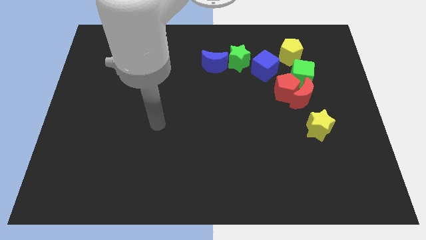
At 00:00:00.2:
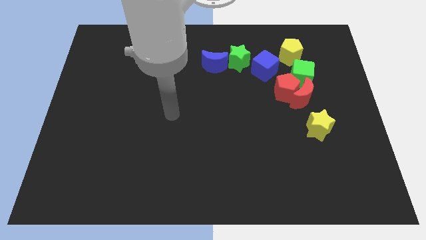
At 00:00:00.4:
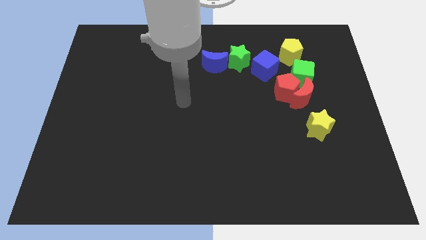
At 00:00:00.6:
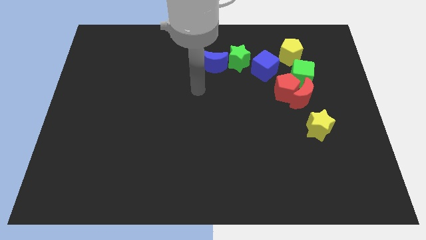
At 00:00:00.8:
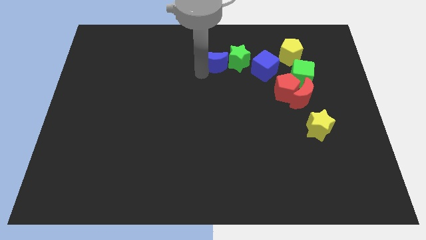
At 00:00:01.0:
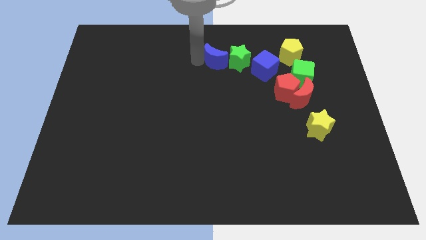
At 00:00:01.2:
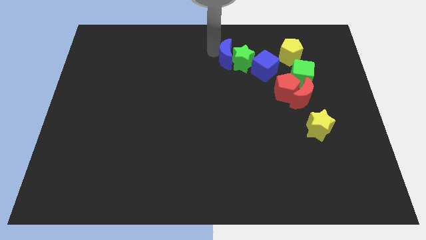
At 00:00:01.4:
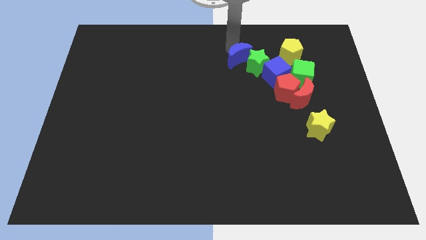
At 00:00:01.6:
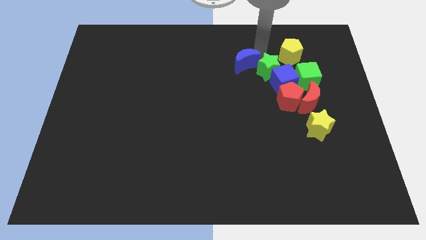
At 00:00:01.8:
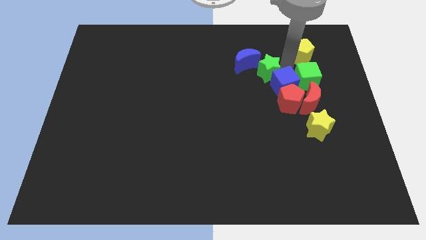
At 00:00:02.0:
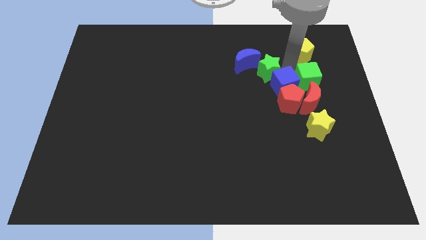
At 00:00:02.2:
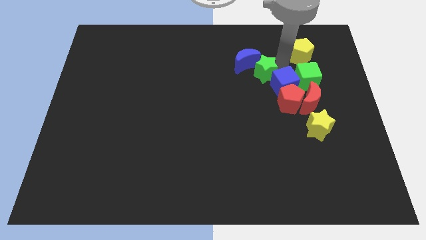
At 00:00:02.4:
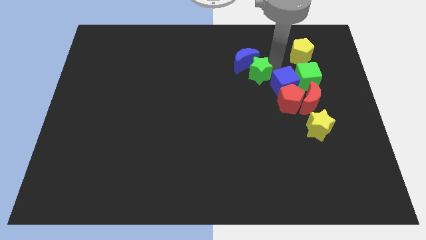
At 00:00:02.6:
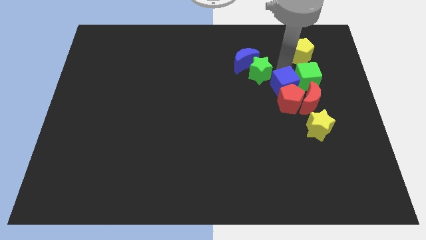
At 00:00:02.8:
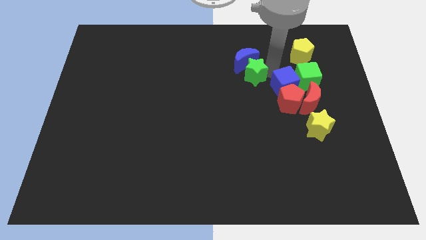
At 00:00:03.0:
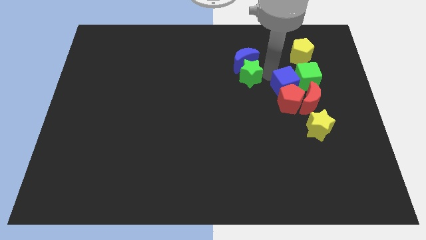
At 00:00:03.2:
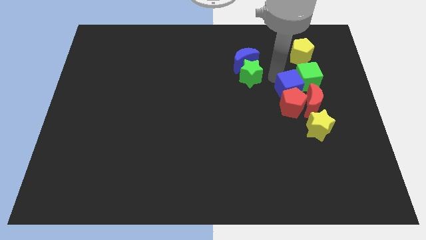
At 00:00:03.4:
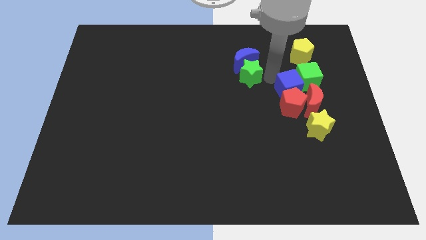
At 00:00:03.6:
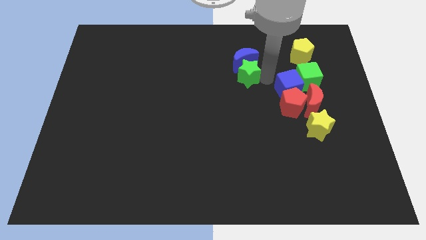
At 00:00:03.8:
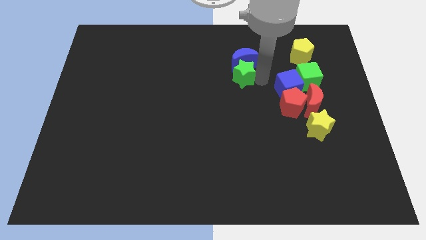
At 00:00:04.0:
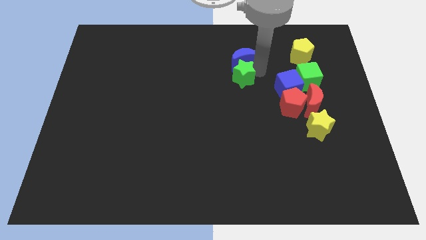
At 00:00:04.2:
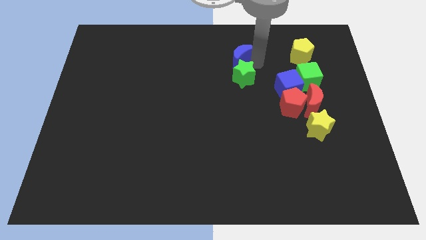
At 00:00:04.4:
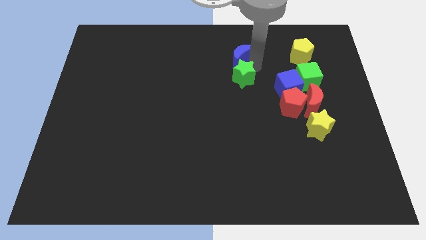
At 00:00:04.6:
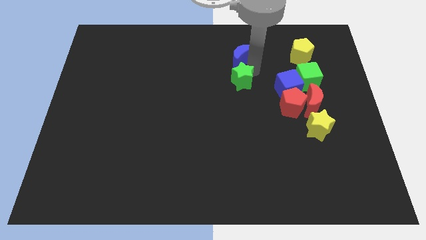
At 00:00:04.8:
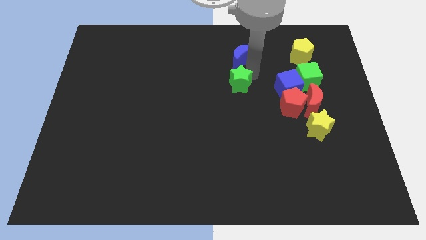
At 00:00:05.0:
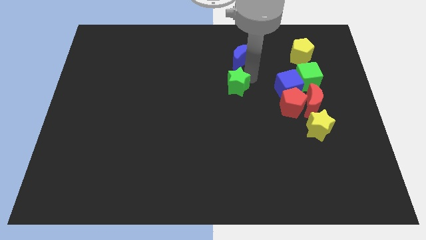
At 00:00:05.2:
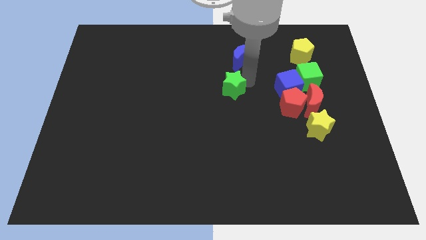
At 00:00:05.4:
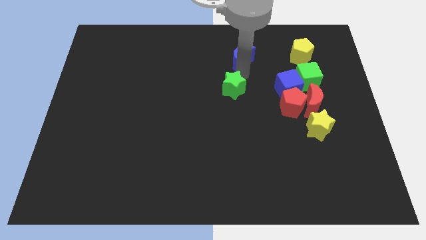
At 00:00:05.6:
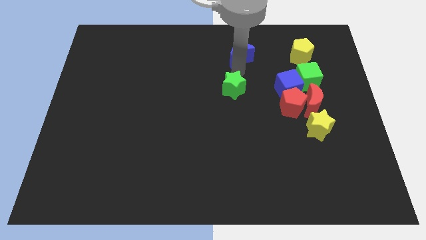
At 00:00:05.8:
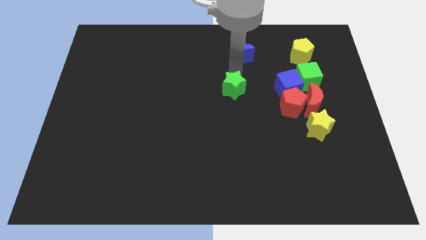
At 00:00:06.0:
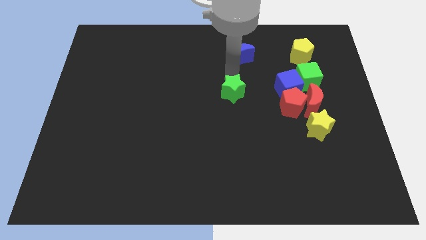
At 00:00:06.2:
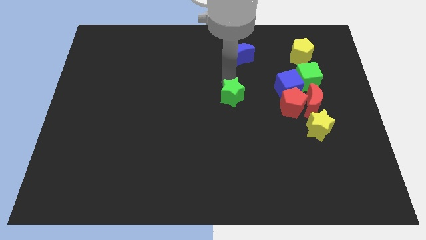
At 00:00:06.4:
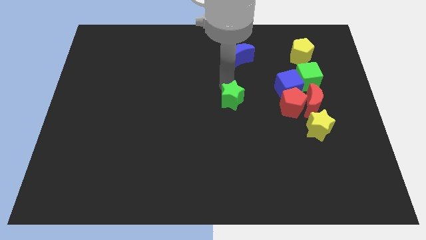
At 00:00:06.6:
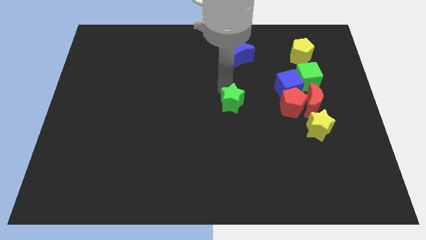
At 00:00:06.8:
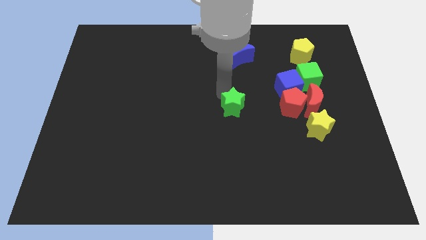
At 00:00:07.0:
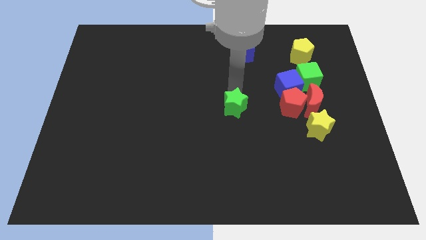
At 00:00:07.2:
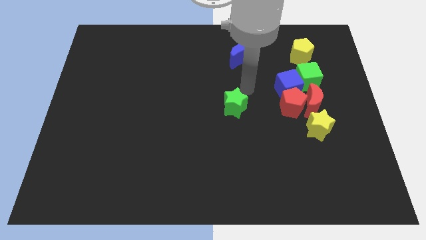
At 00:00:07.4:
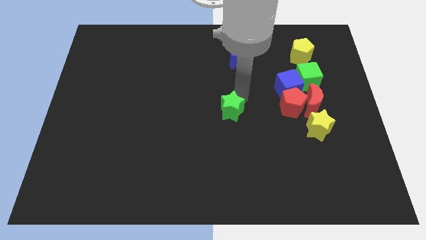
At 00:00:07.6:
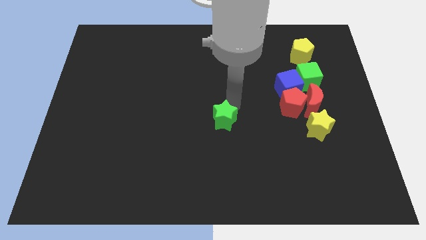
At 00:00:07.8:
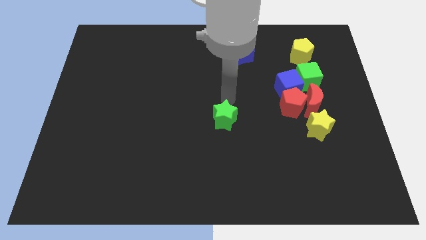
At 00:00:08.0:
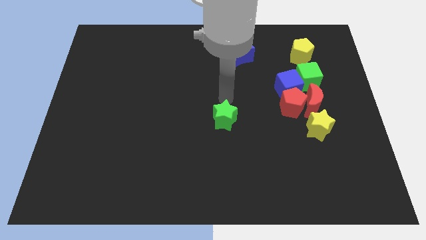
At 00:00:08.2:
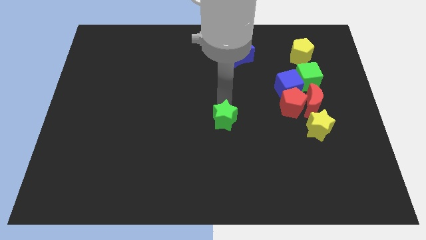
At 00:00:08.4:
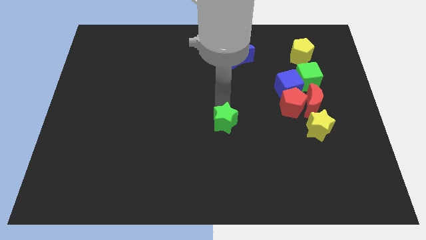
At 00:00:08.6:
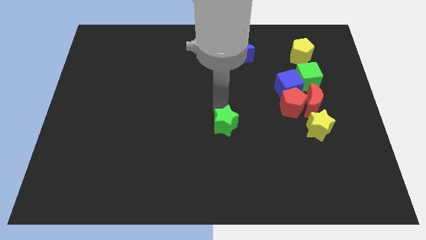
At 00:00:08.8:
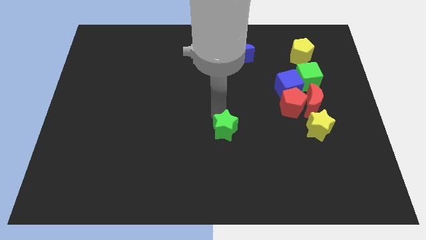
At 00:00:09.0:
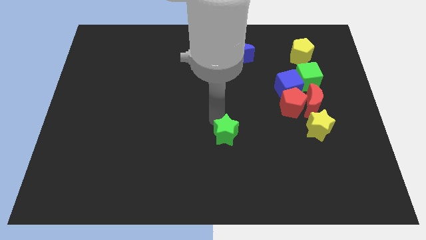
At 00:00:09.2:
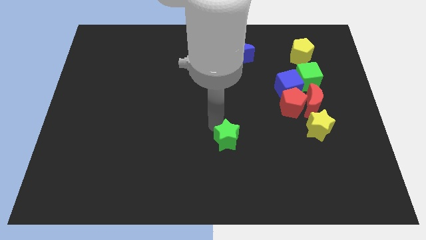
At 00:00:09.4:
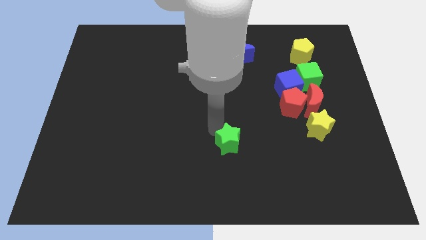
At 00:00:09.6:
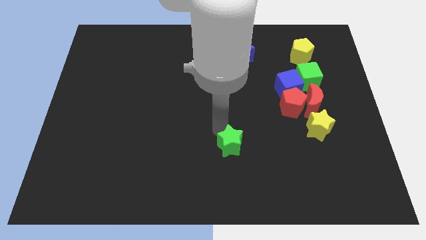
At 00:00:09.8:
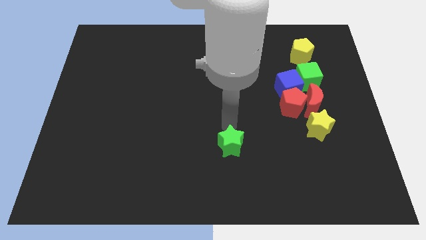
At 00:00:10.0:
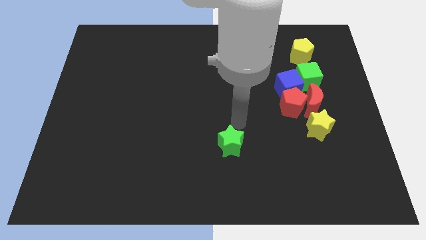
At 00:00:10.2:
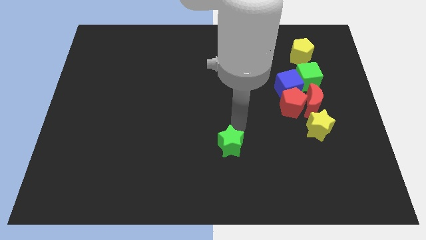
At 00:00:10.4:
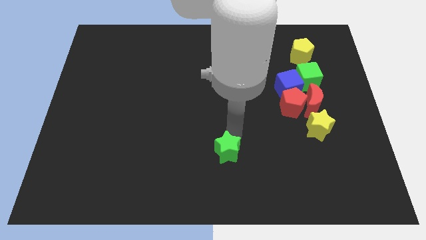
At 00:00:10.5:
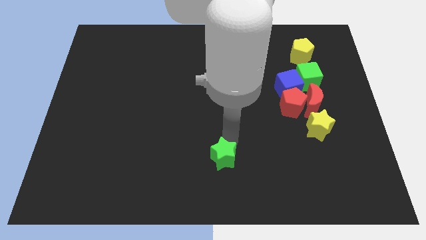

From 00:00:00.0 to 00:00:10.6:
move the green star to the bottom side

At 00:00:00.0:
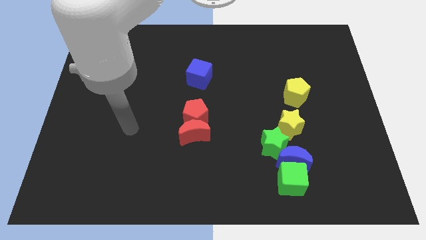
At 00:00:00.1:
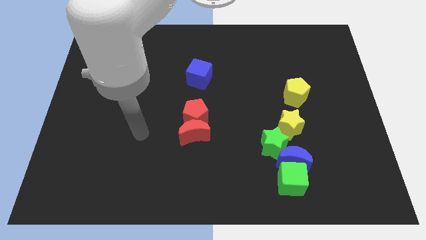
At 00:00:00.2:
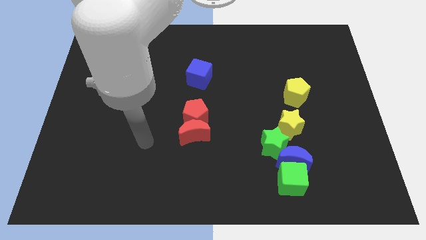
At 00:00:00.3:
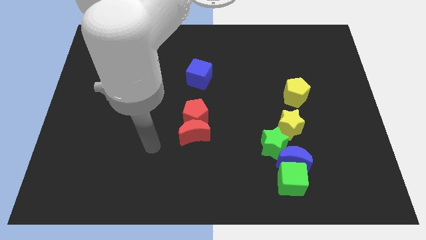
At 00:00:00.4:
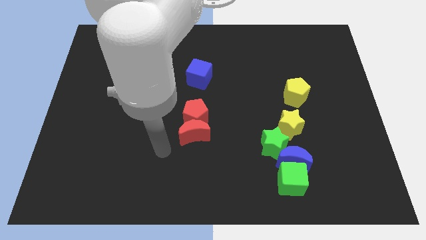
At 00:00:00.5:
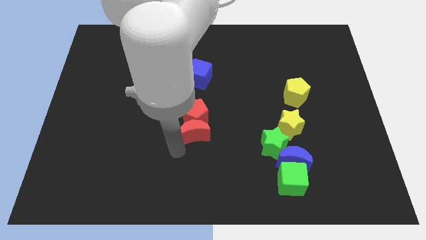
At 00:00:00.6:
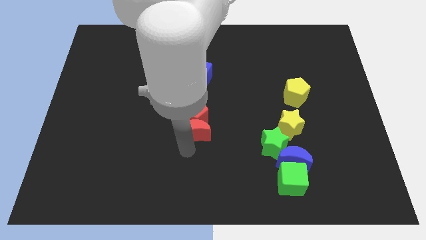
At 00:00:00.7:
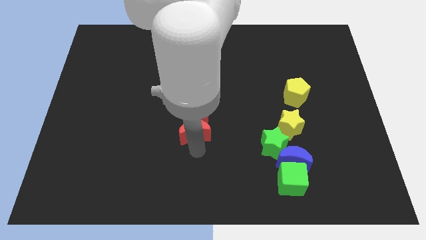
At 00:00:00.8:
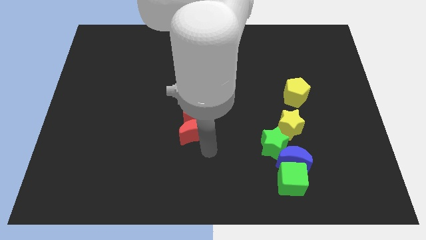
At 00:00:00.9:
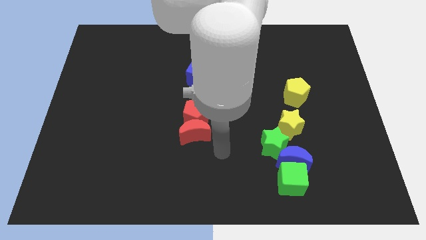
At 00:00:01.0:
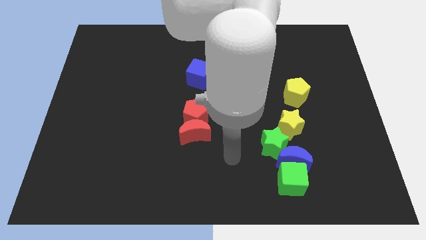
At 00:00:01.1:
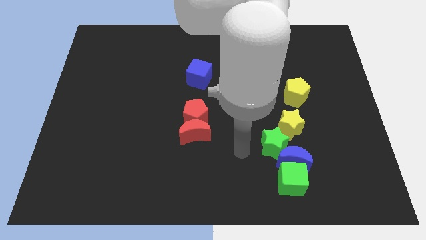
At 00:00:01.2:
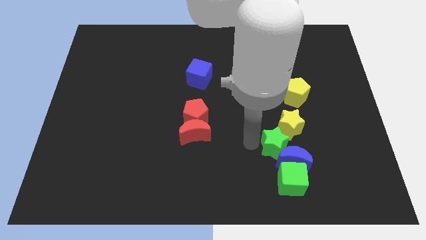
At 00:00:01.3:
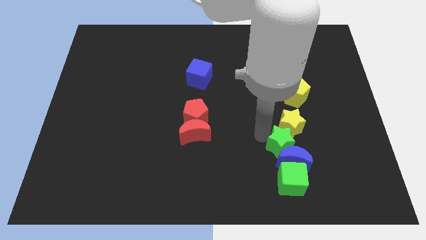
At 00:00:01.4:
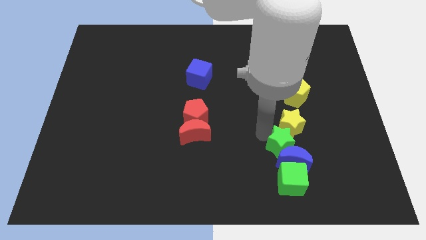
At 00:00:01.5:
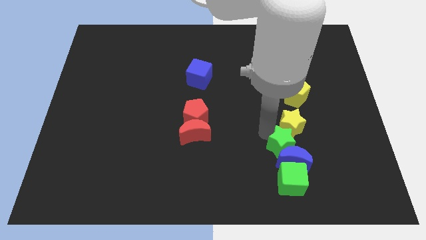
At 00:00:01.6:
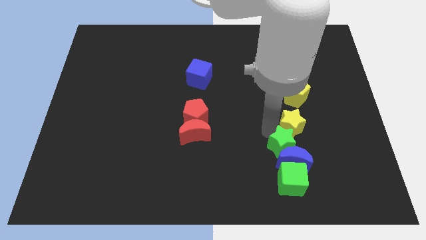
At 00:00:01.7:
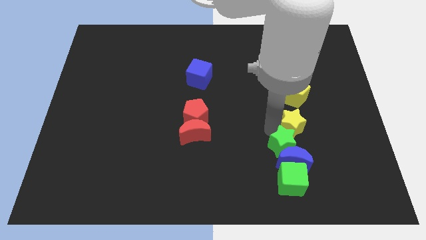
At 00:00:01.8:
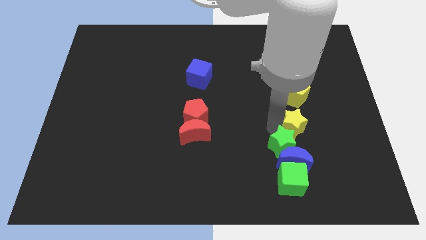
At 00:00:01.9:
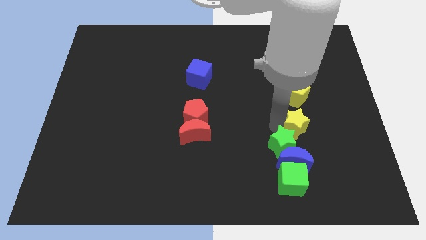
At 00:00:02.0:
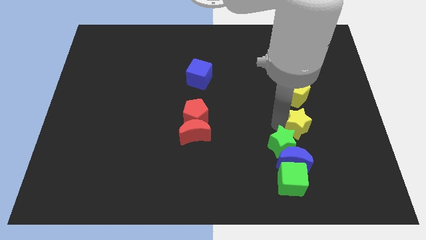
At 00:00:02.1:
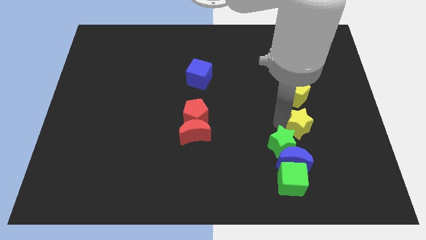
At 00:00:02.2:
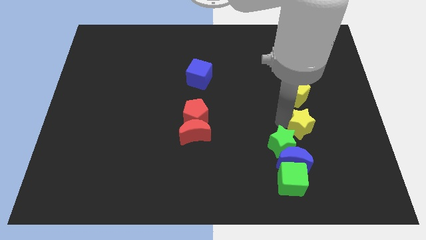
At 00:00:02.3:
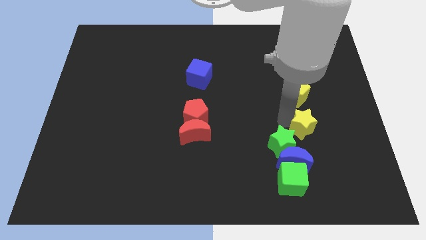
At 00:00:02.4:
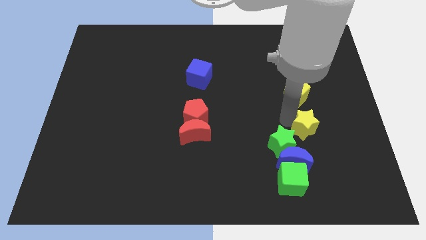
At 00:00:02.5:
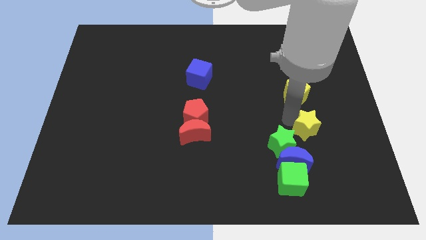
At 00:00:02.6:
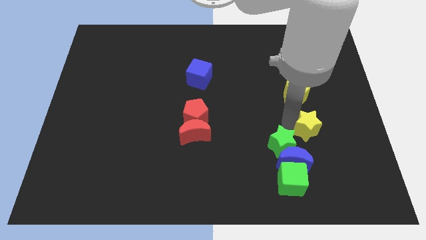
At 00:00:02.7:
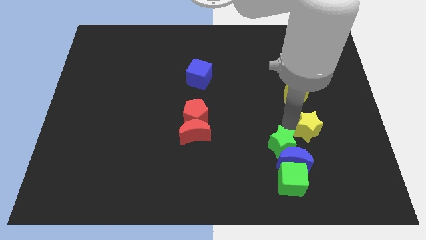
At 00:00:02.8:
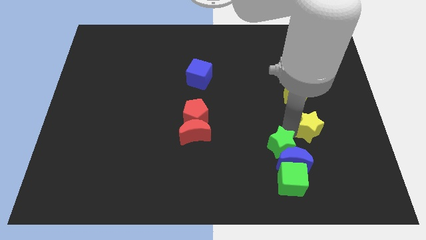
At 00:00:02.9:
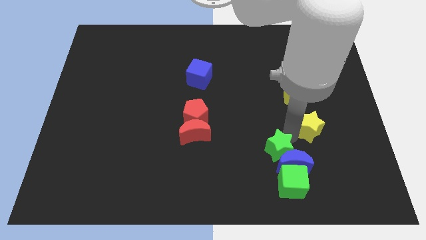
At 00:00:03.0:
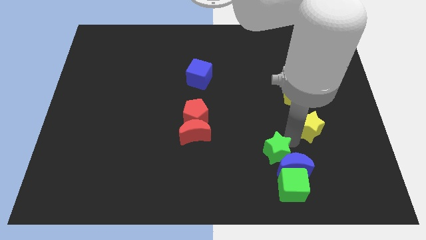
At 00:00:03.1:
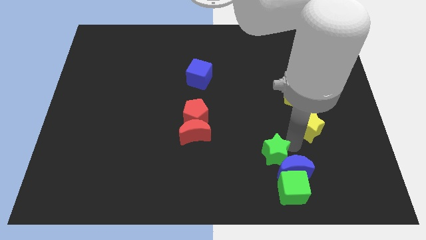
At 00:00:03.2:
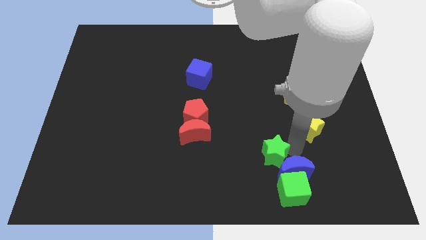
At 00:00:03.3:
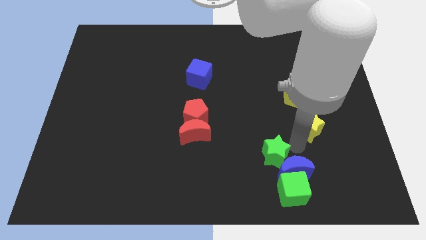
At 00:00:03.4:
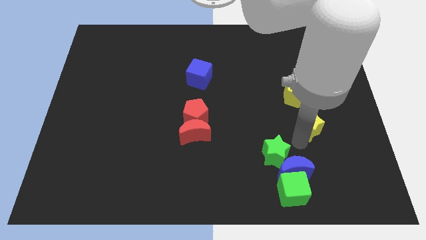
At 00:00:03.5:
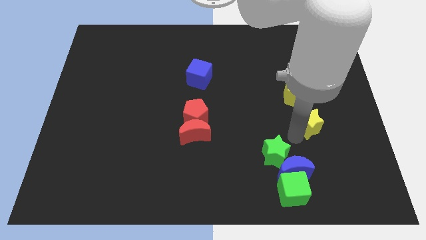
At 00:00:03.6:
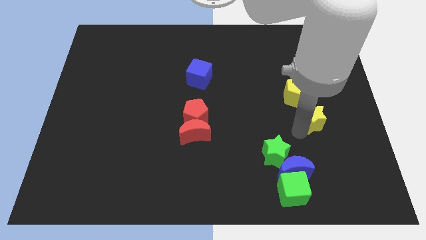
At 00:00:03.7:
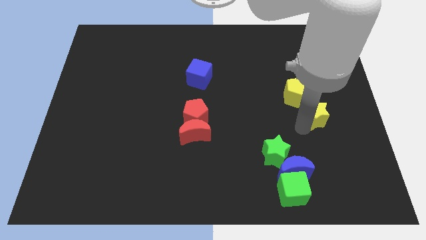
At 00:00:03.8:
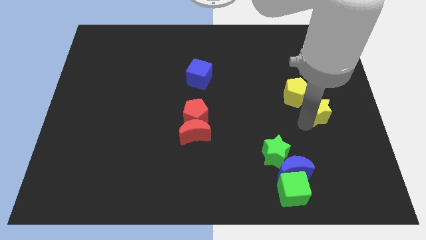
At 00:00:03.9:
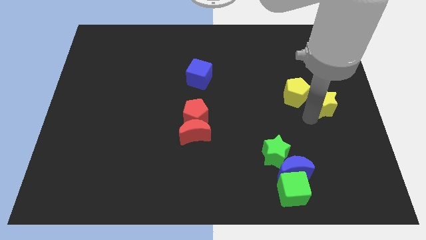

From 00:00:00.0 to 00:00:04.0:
slide the yellow star to the right side
